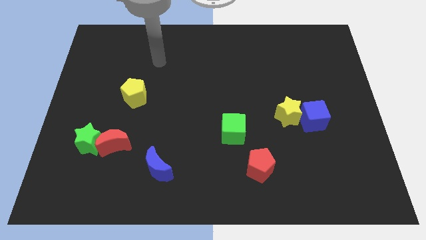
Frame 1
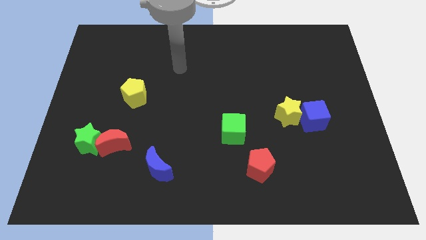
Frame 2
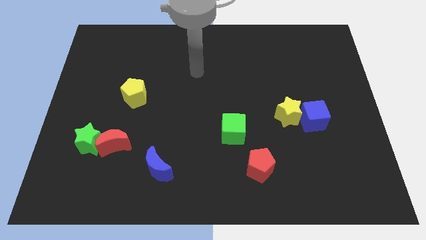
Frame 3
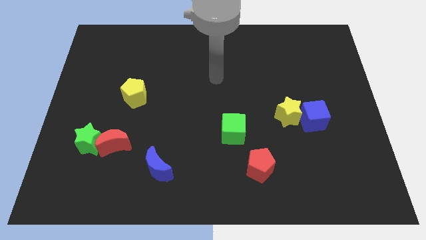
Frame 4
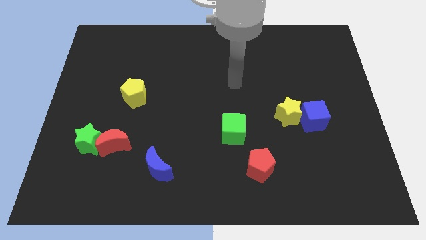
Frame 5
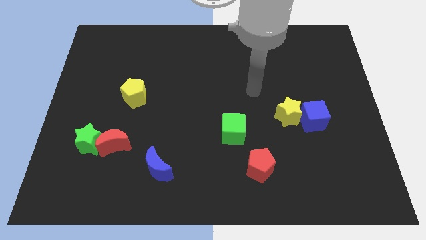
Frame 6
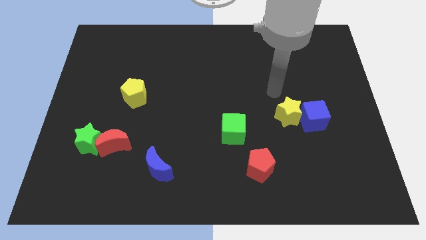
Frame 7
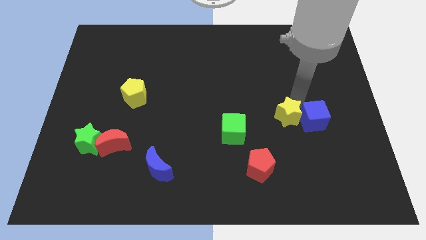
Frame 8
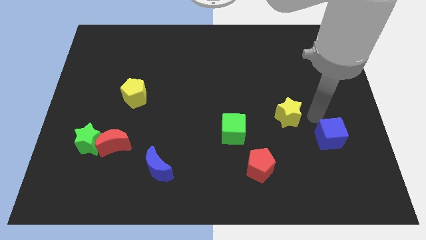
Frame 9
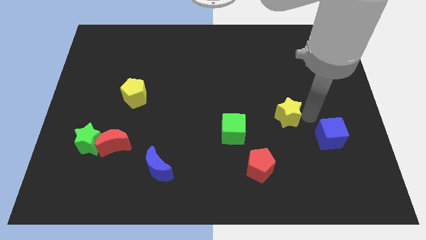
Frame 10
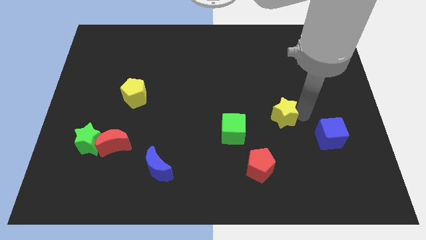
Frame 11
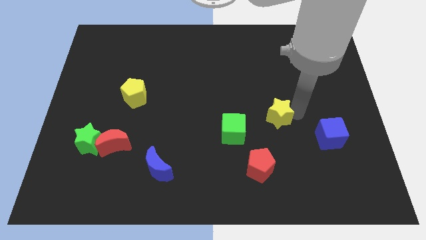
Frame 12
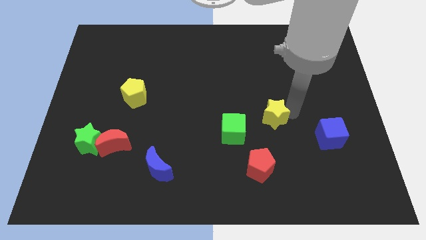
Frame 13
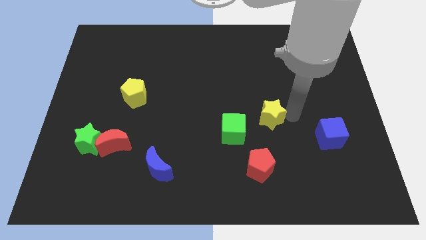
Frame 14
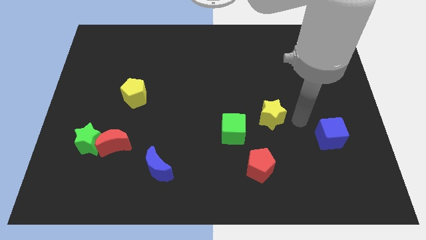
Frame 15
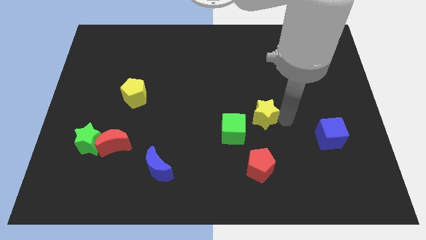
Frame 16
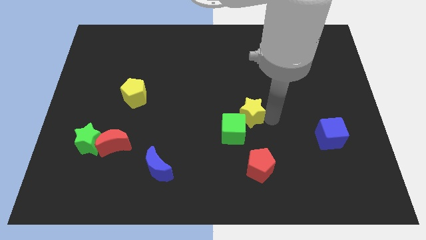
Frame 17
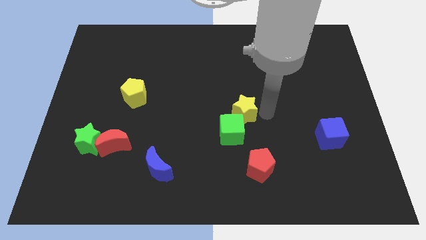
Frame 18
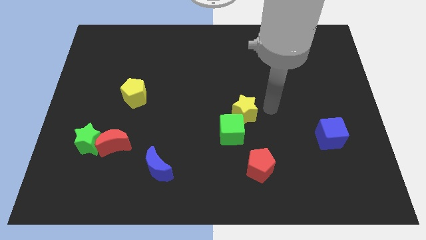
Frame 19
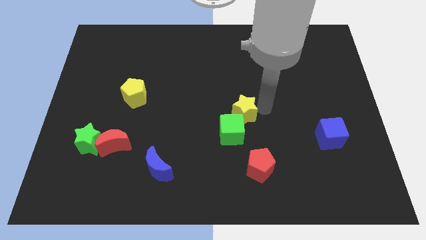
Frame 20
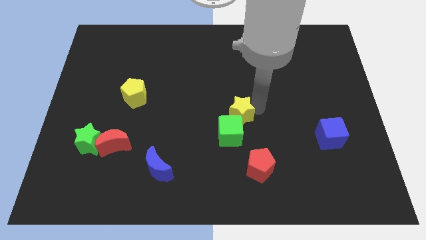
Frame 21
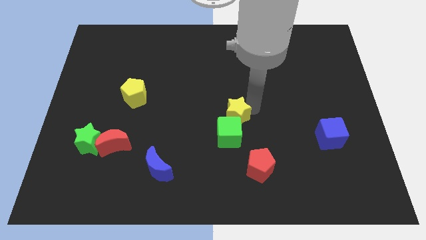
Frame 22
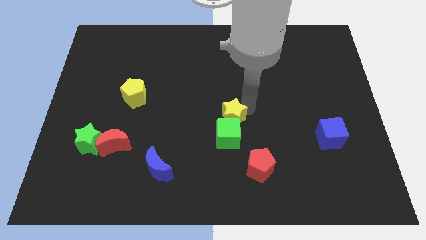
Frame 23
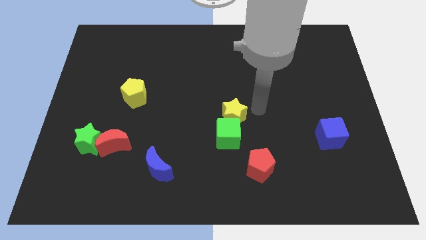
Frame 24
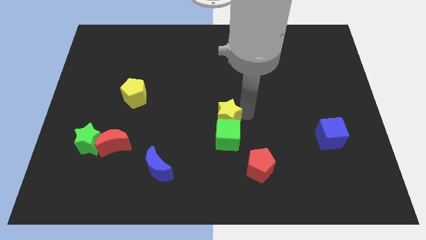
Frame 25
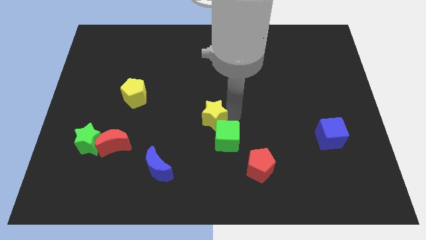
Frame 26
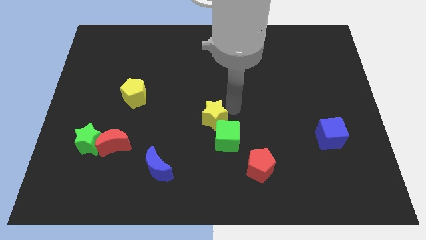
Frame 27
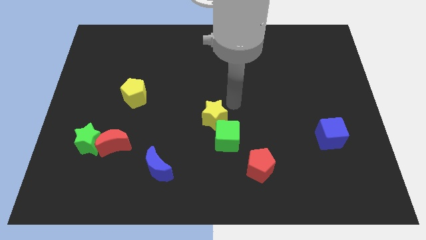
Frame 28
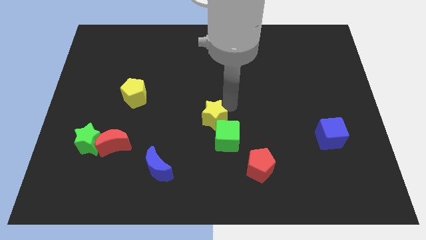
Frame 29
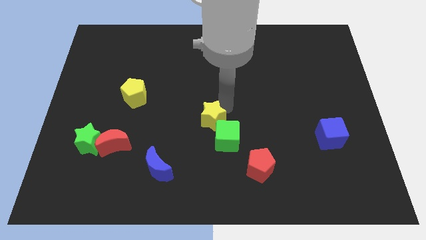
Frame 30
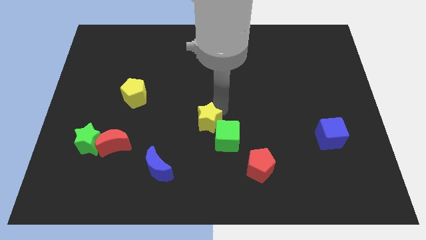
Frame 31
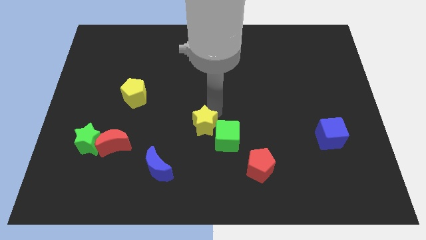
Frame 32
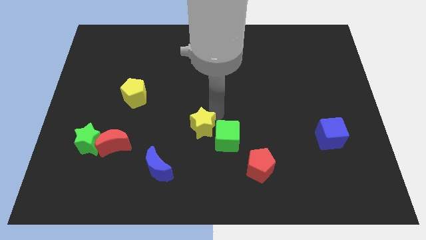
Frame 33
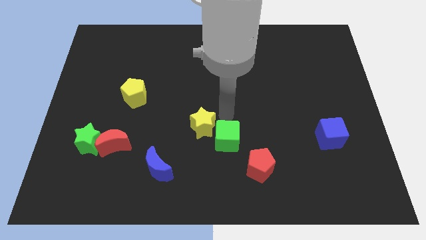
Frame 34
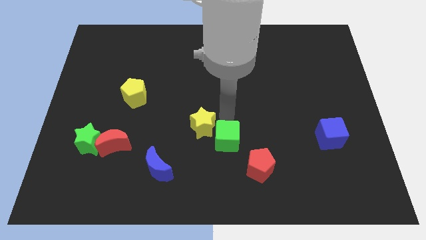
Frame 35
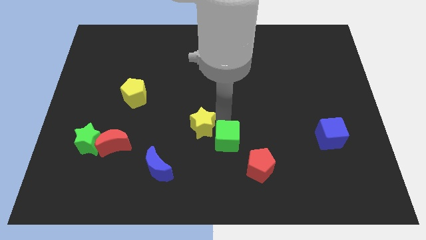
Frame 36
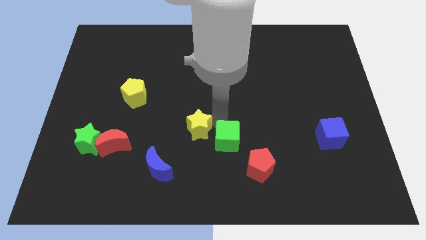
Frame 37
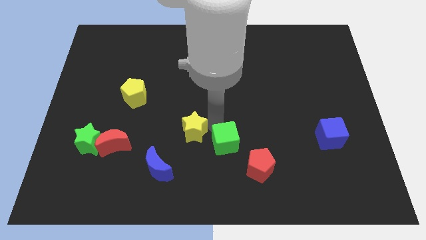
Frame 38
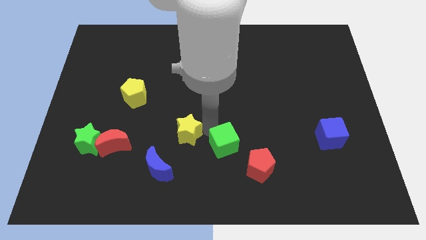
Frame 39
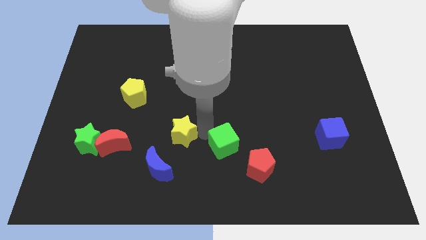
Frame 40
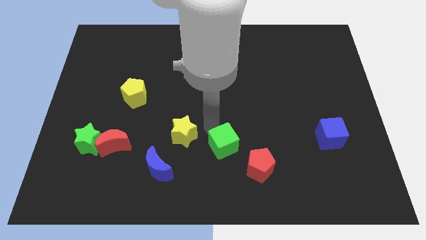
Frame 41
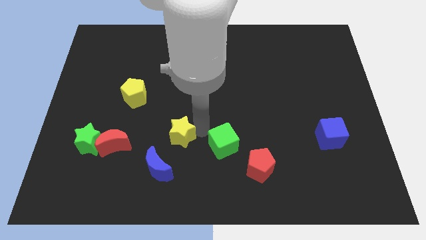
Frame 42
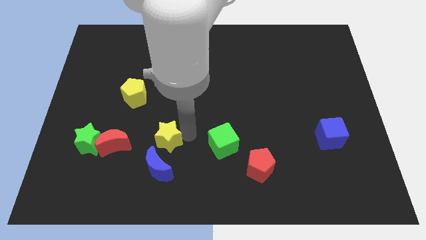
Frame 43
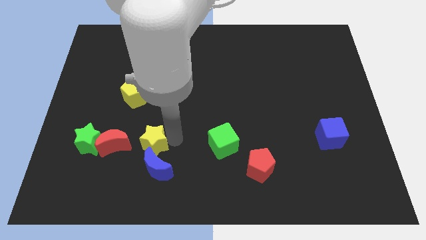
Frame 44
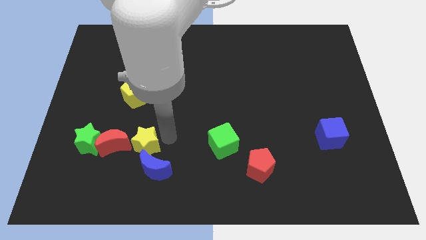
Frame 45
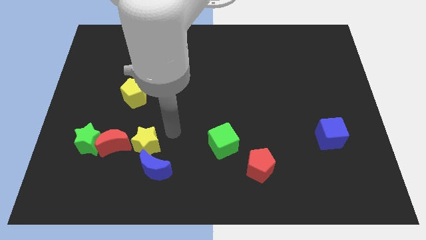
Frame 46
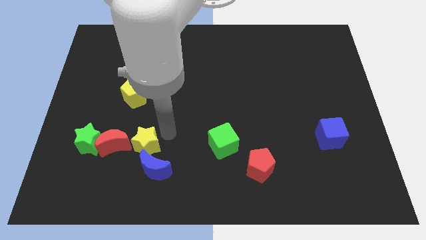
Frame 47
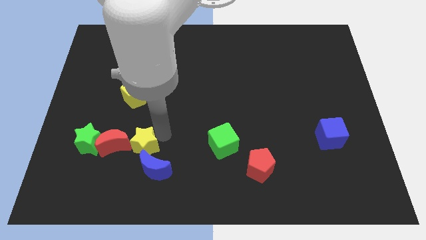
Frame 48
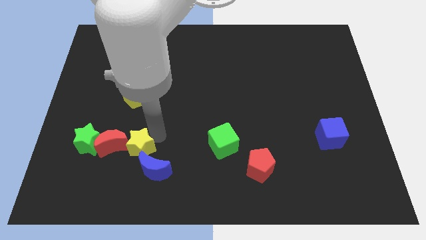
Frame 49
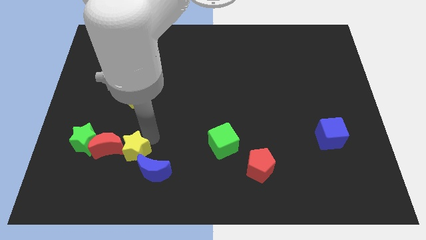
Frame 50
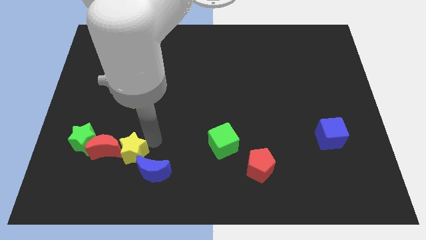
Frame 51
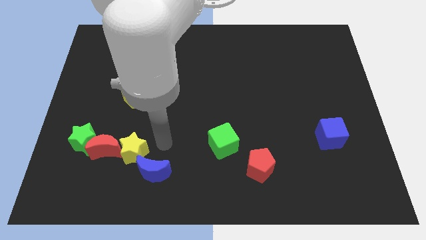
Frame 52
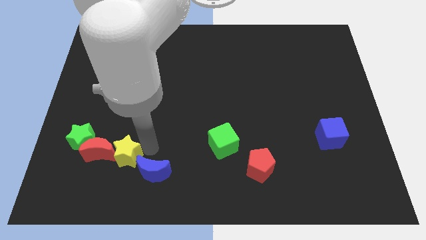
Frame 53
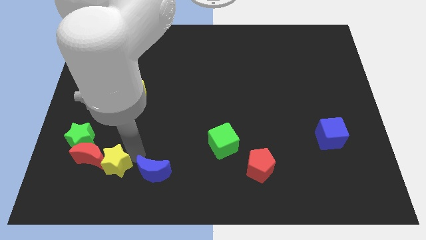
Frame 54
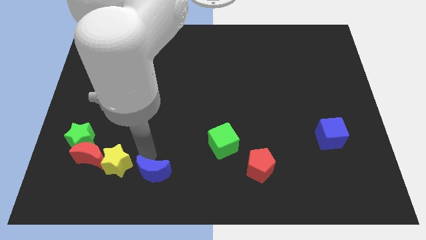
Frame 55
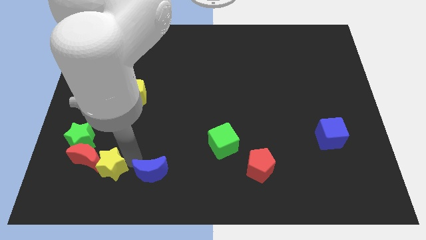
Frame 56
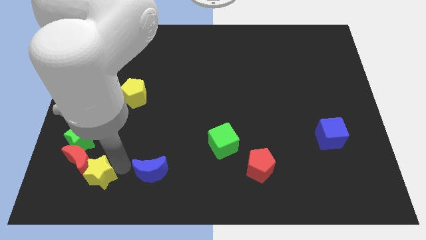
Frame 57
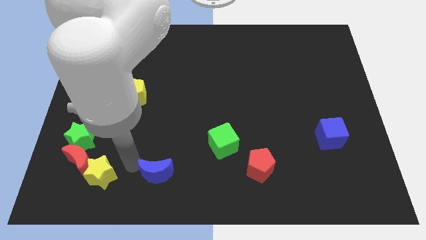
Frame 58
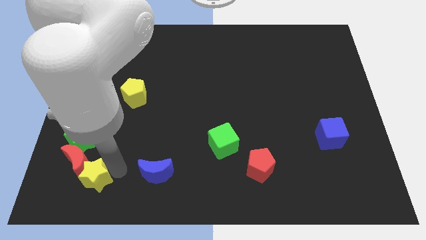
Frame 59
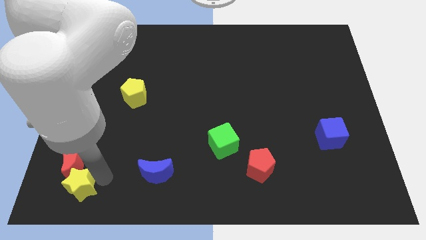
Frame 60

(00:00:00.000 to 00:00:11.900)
put the yellow star to the bottom left corner

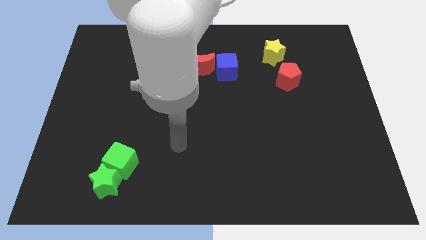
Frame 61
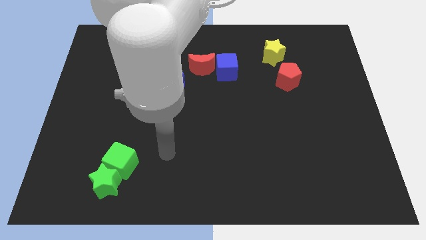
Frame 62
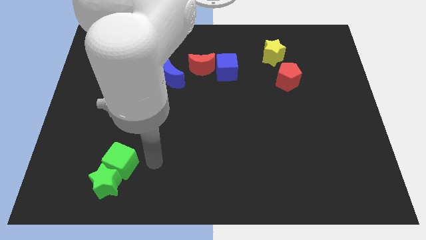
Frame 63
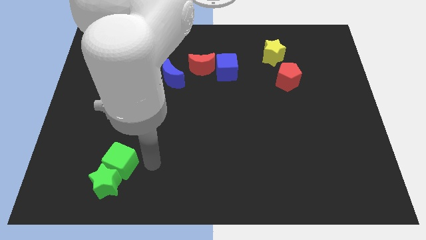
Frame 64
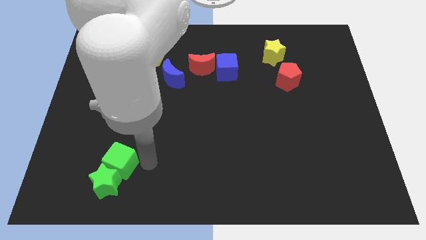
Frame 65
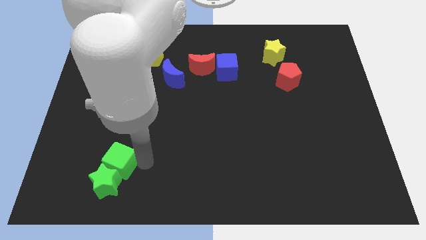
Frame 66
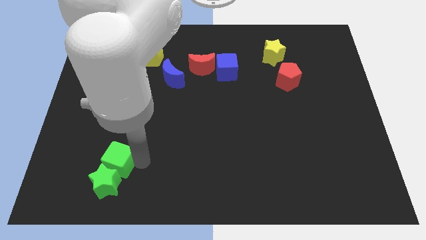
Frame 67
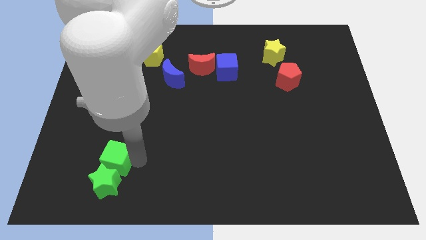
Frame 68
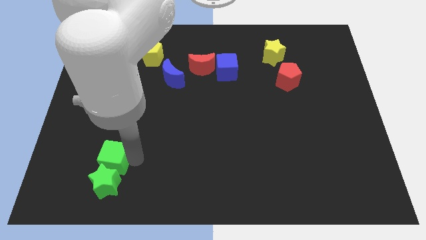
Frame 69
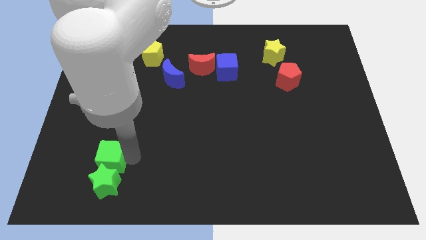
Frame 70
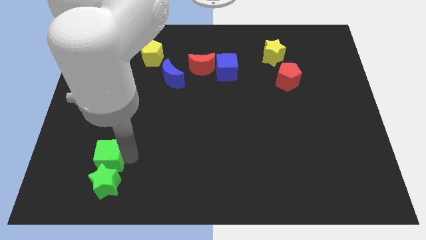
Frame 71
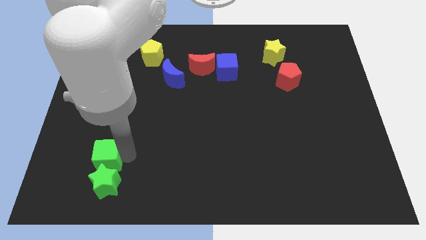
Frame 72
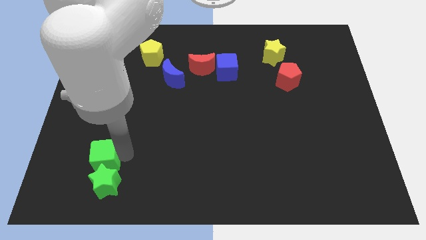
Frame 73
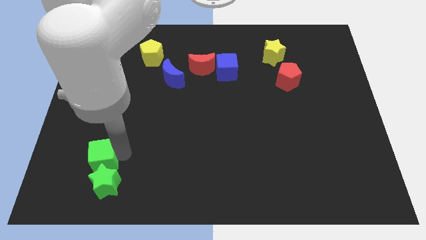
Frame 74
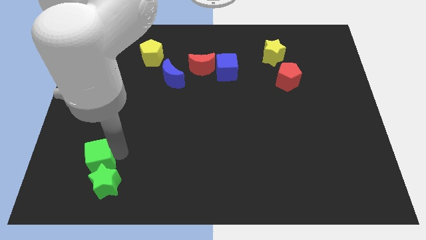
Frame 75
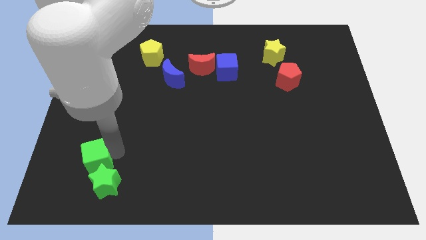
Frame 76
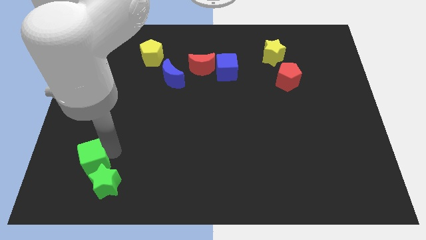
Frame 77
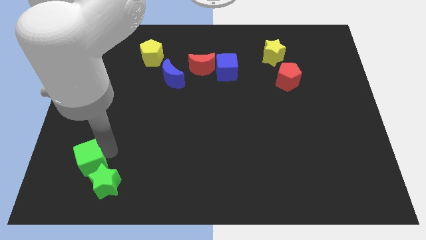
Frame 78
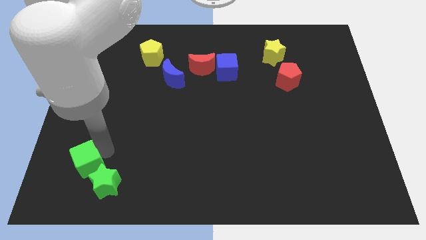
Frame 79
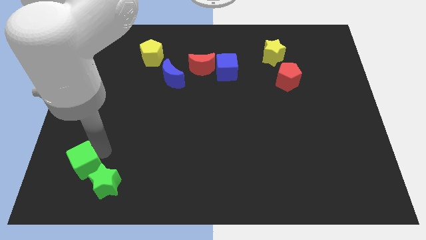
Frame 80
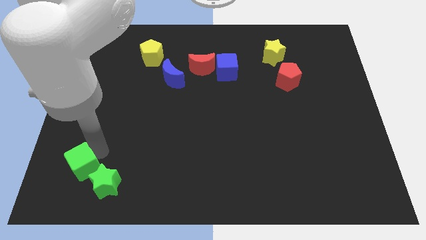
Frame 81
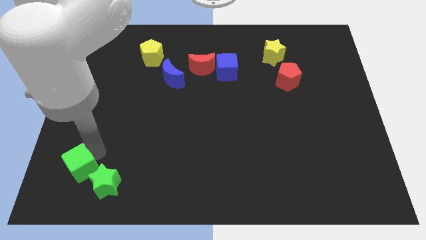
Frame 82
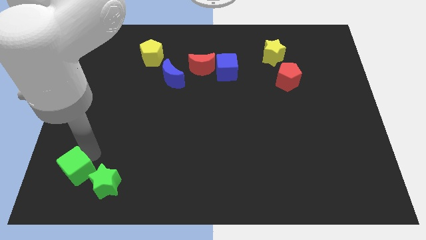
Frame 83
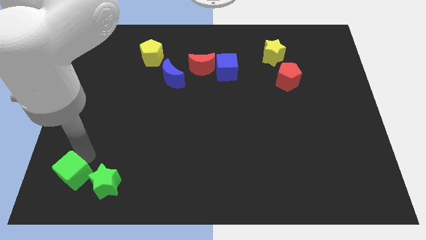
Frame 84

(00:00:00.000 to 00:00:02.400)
move the green cube to the bottom left corner
